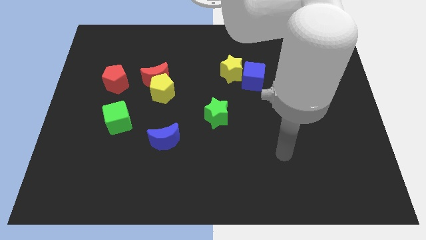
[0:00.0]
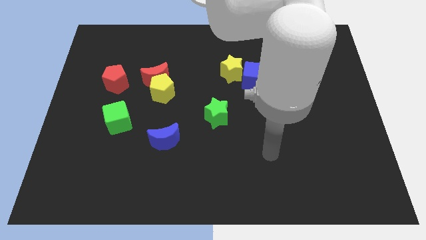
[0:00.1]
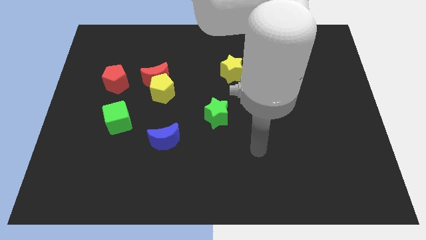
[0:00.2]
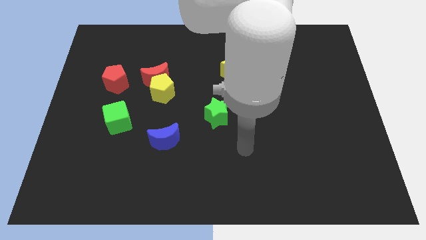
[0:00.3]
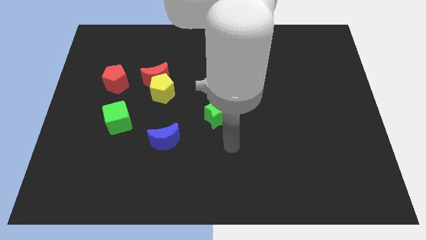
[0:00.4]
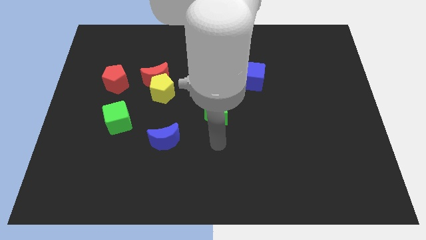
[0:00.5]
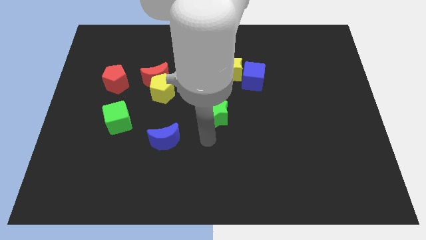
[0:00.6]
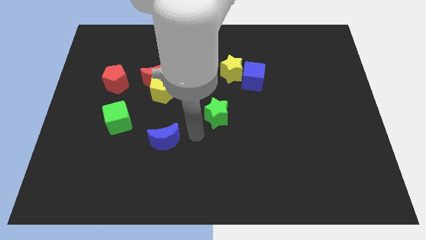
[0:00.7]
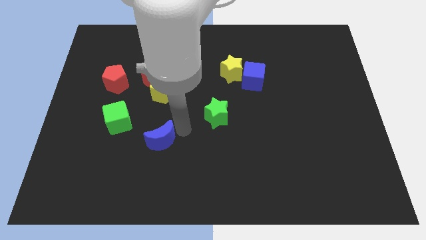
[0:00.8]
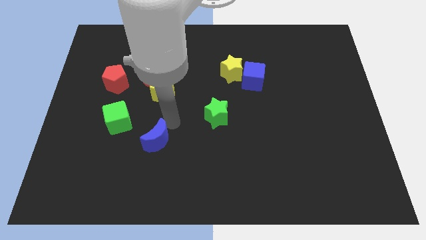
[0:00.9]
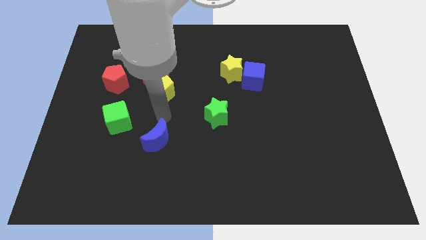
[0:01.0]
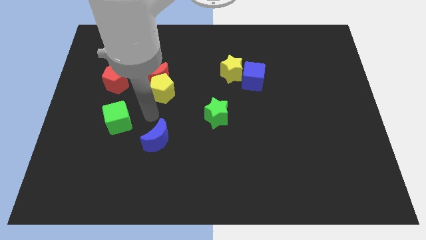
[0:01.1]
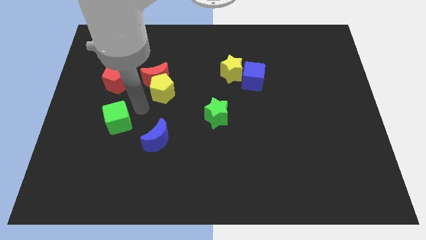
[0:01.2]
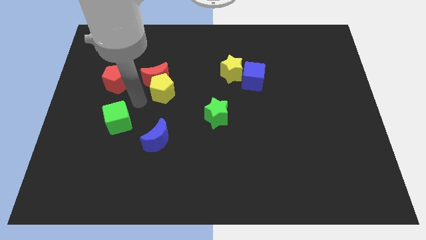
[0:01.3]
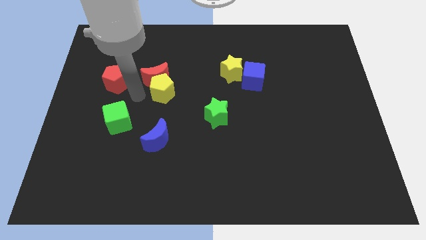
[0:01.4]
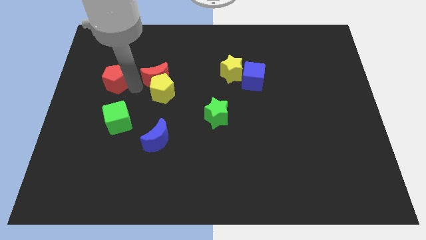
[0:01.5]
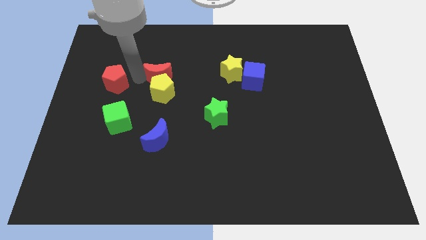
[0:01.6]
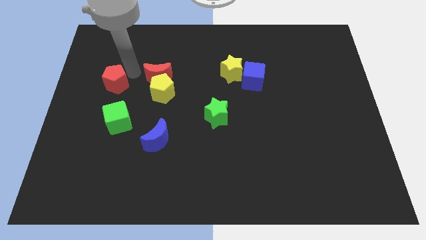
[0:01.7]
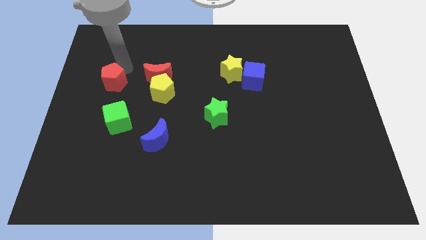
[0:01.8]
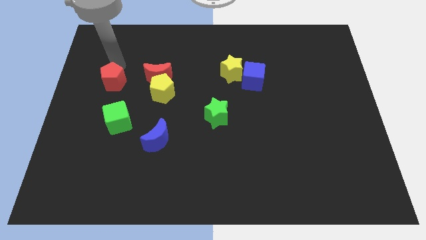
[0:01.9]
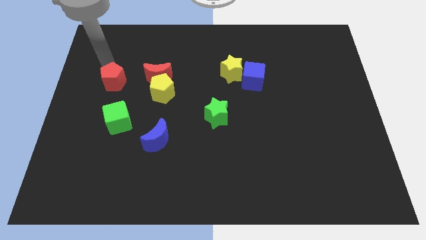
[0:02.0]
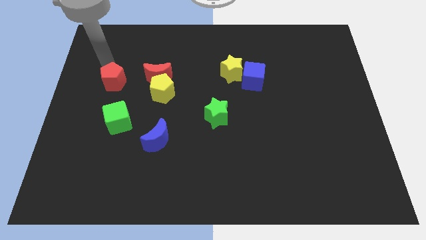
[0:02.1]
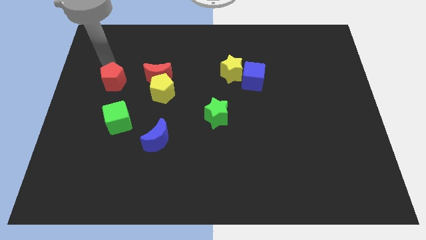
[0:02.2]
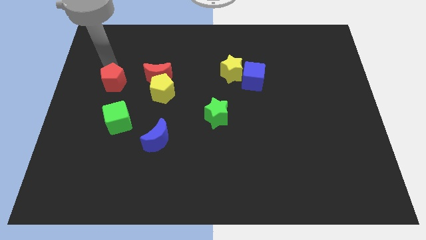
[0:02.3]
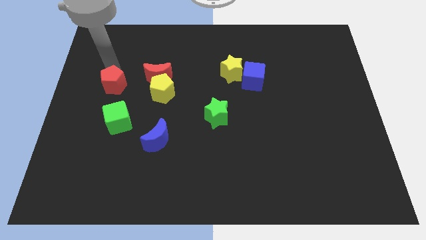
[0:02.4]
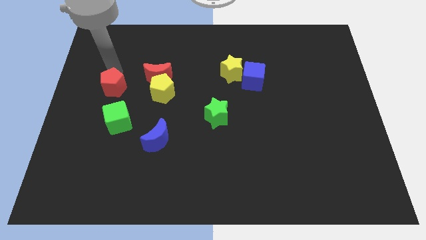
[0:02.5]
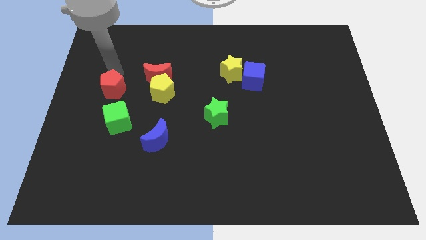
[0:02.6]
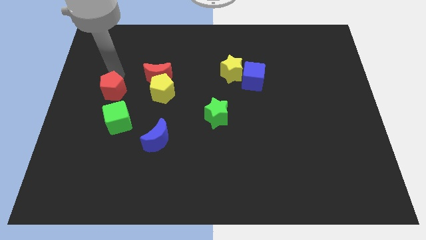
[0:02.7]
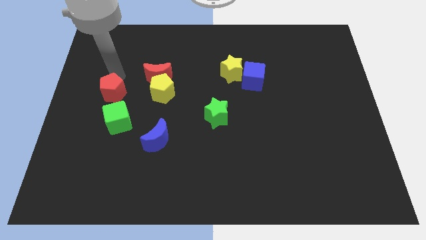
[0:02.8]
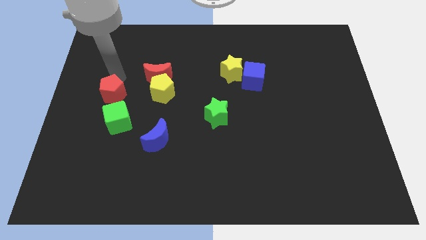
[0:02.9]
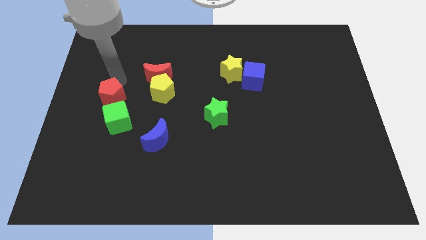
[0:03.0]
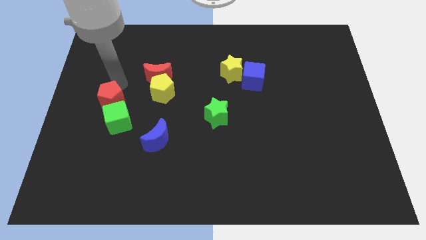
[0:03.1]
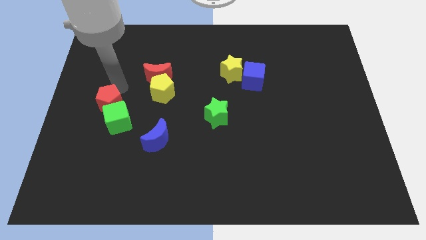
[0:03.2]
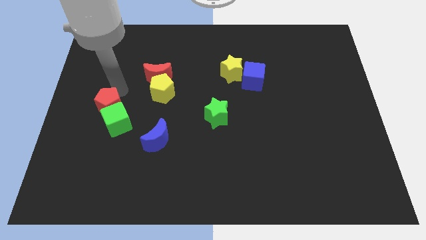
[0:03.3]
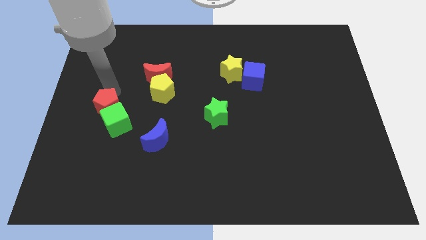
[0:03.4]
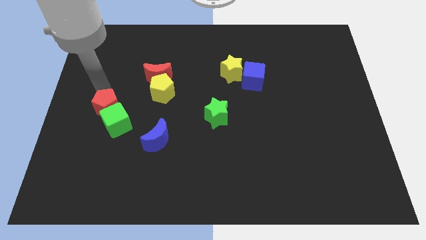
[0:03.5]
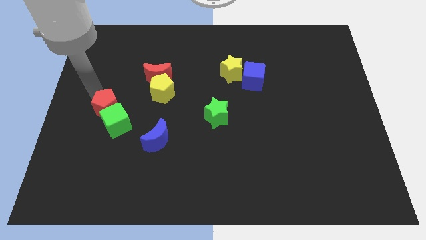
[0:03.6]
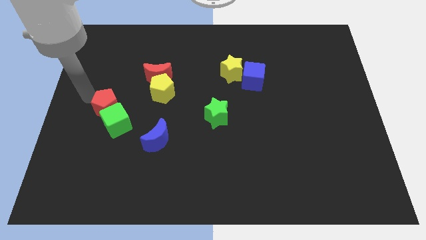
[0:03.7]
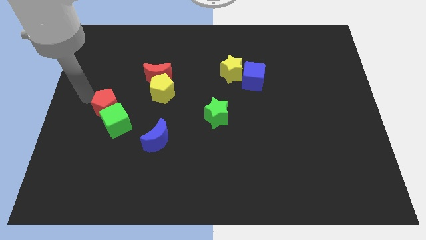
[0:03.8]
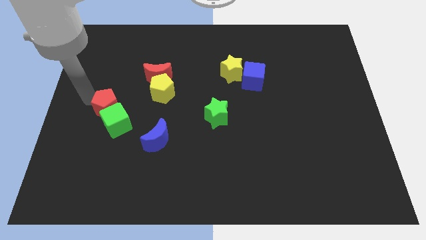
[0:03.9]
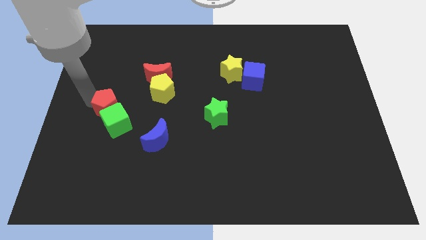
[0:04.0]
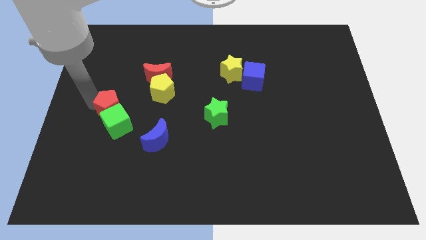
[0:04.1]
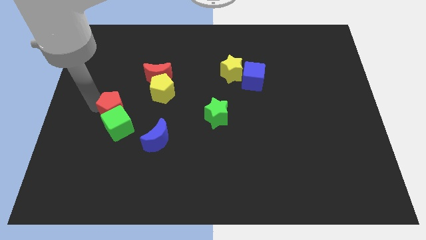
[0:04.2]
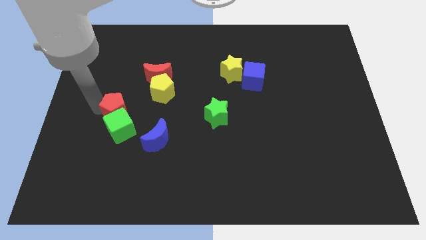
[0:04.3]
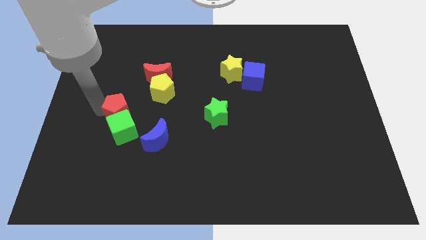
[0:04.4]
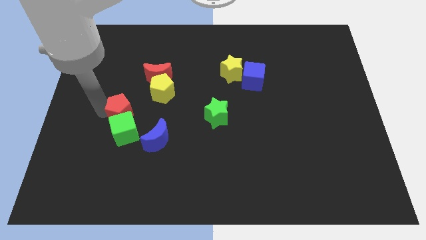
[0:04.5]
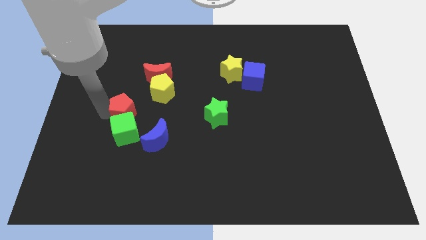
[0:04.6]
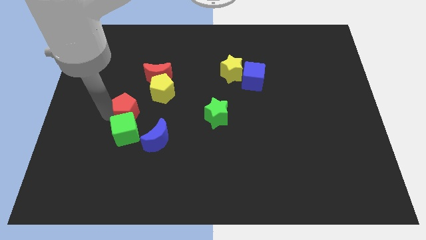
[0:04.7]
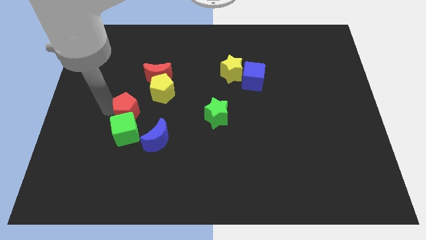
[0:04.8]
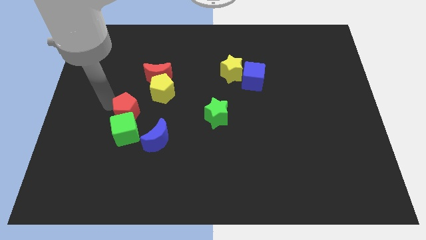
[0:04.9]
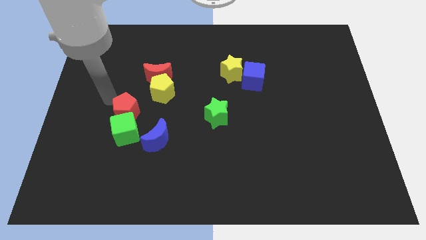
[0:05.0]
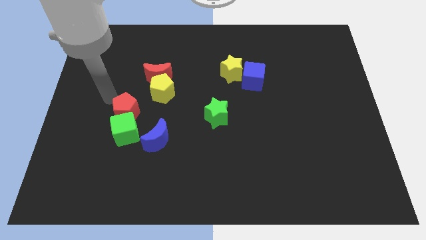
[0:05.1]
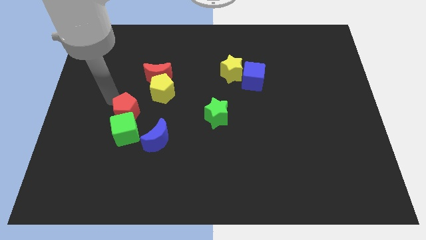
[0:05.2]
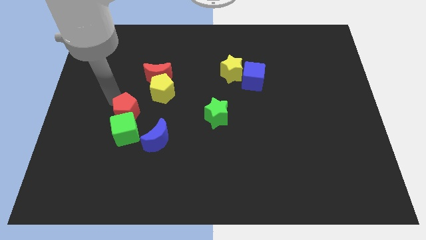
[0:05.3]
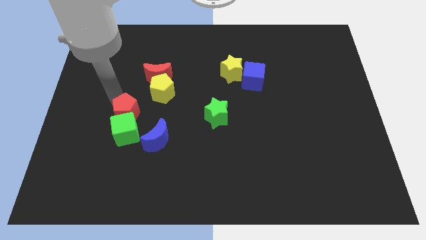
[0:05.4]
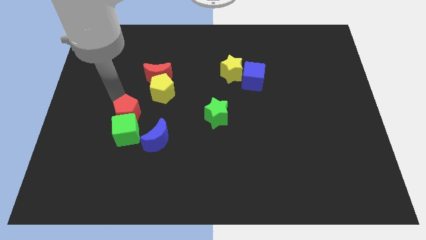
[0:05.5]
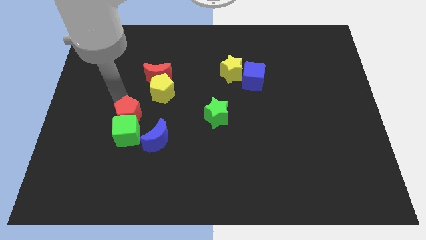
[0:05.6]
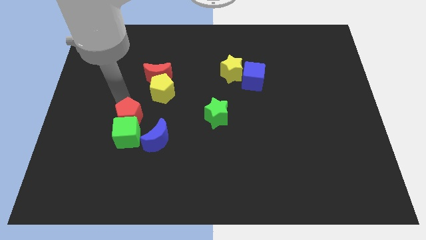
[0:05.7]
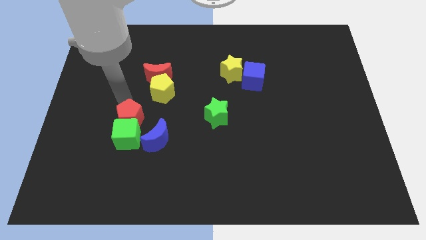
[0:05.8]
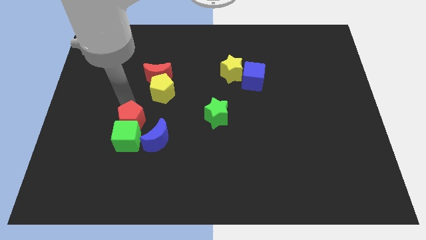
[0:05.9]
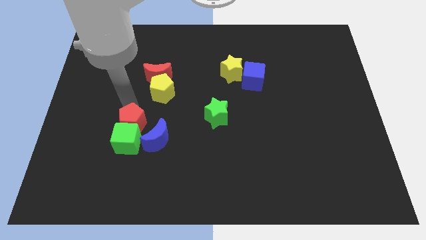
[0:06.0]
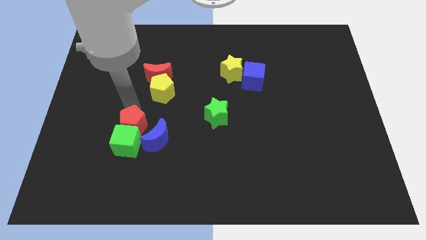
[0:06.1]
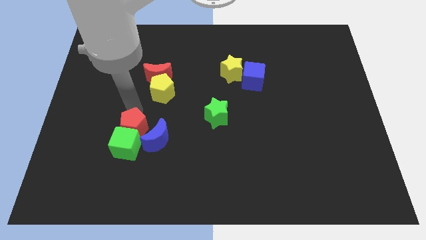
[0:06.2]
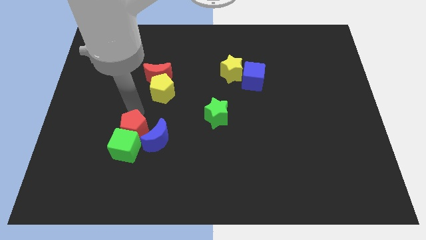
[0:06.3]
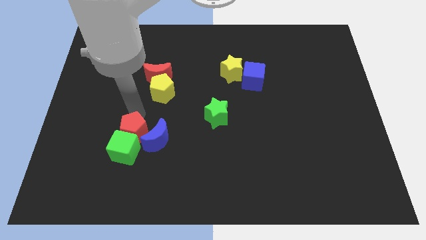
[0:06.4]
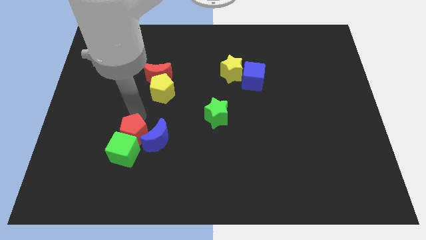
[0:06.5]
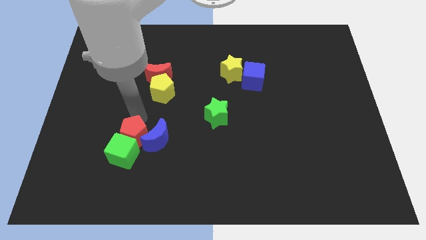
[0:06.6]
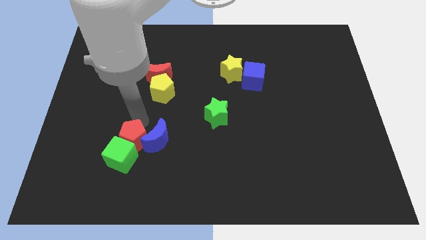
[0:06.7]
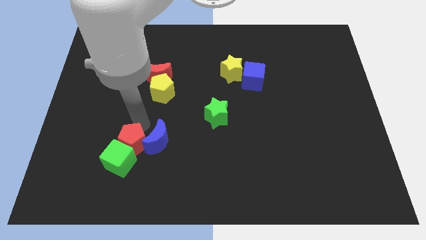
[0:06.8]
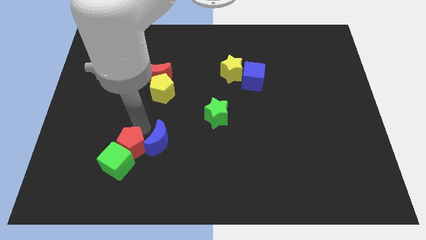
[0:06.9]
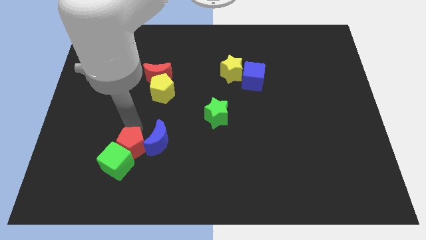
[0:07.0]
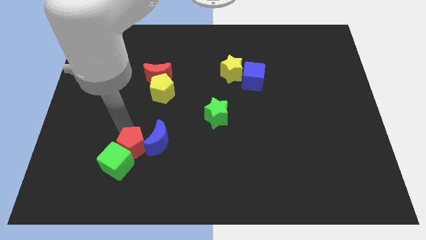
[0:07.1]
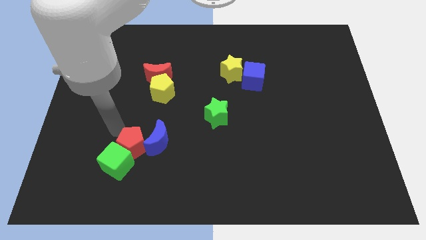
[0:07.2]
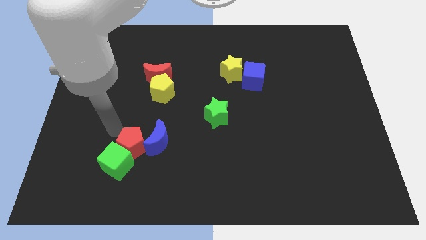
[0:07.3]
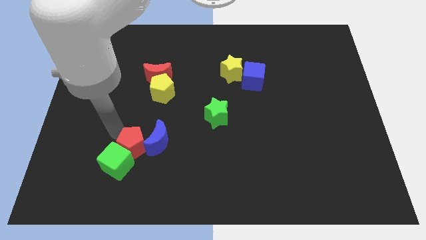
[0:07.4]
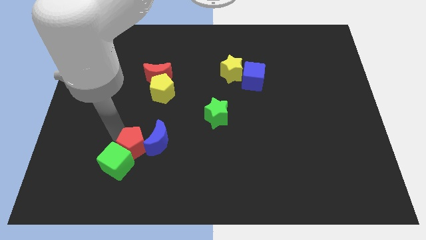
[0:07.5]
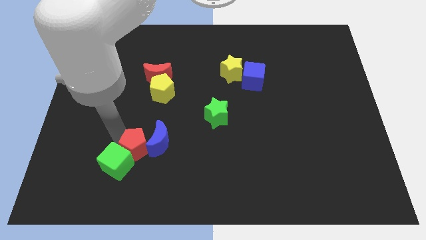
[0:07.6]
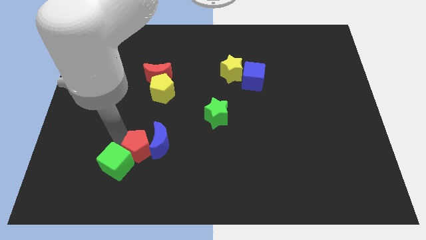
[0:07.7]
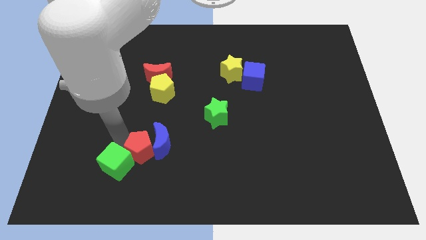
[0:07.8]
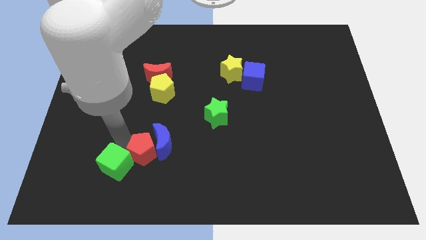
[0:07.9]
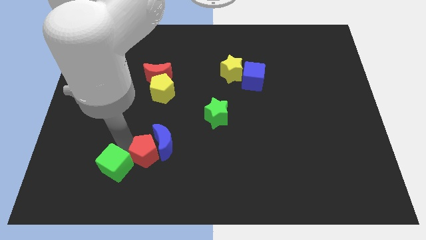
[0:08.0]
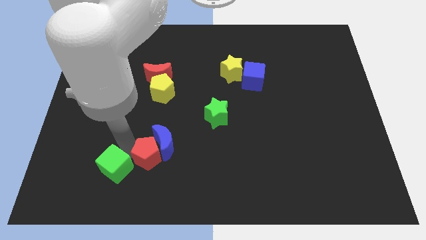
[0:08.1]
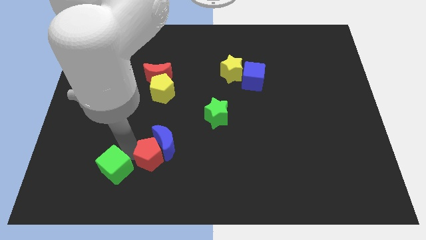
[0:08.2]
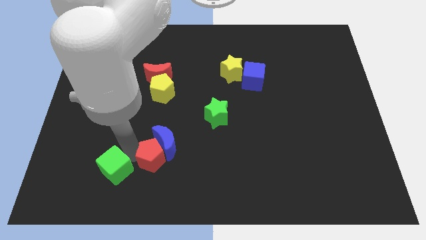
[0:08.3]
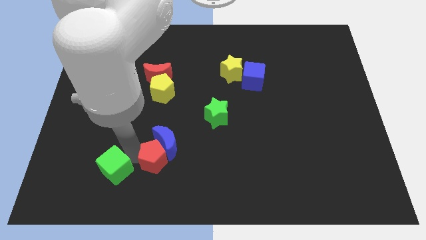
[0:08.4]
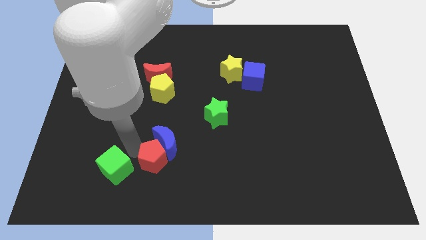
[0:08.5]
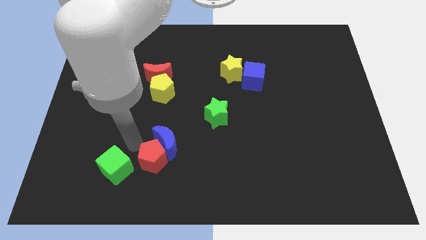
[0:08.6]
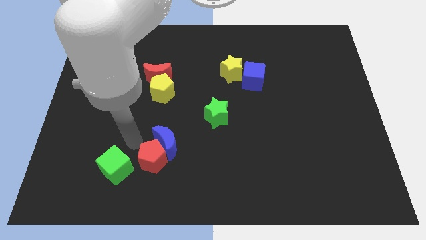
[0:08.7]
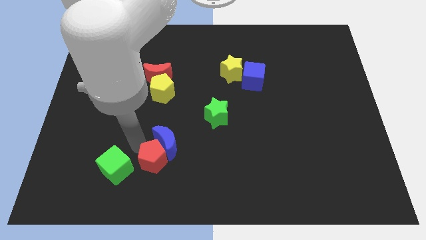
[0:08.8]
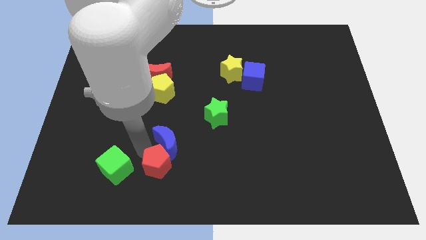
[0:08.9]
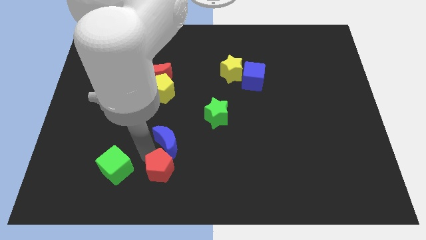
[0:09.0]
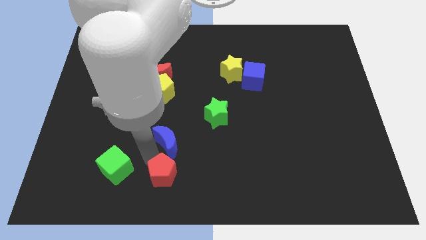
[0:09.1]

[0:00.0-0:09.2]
push the red pentagon to the bottom
